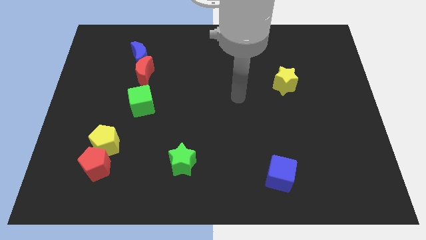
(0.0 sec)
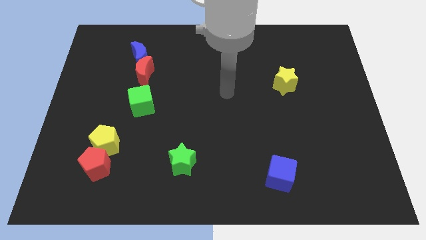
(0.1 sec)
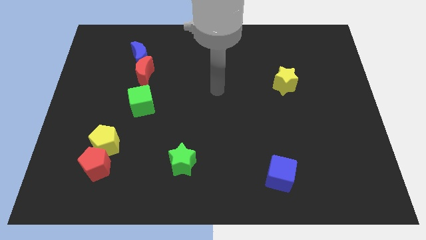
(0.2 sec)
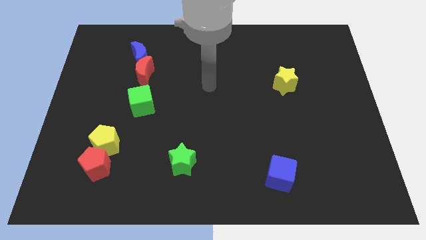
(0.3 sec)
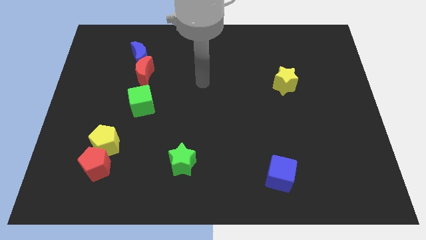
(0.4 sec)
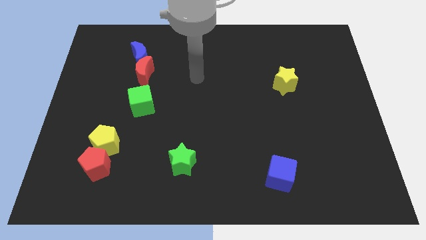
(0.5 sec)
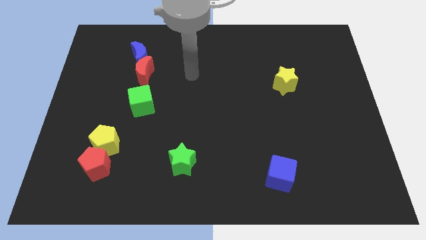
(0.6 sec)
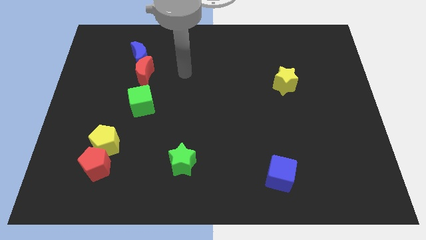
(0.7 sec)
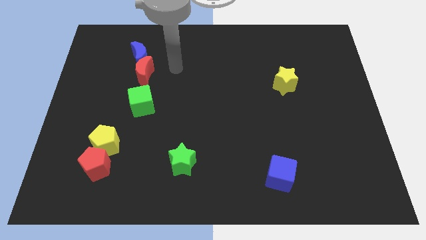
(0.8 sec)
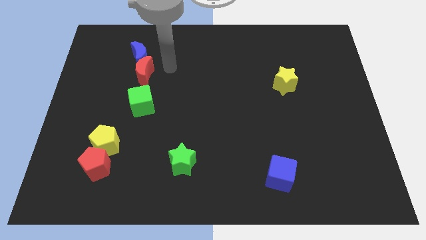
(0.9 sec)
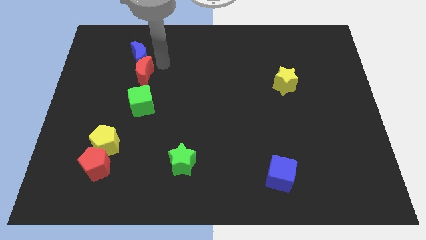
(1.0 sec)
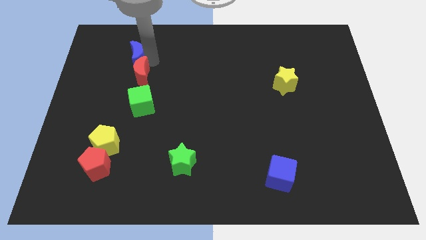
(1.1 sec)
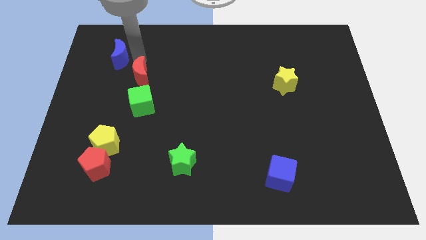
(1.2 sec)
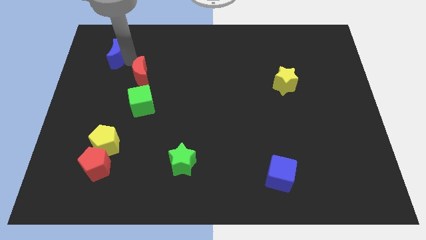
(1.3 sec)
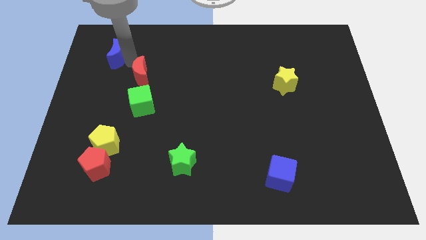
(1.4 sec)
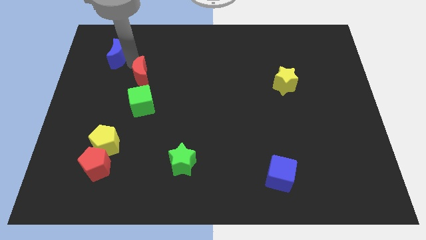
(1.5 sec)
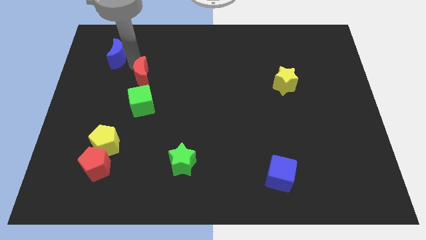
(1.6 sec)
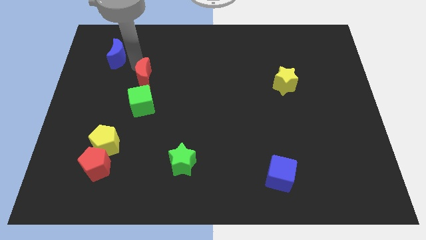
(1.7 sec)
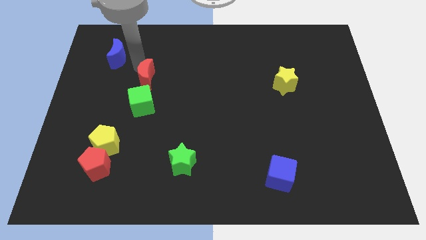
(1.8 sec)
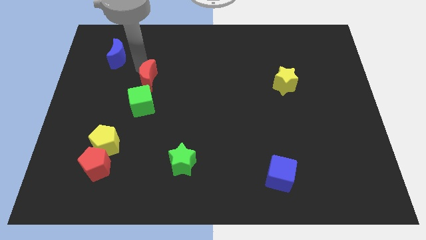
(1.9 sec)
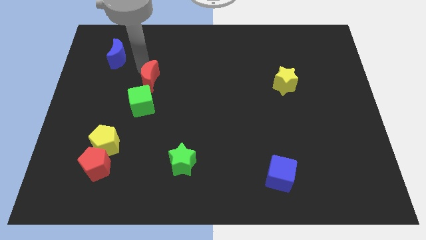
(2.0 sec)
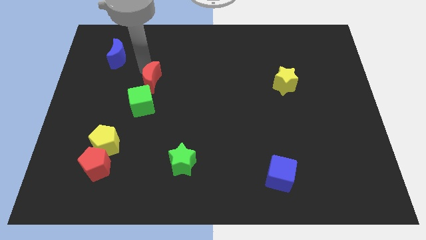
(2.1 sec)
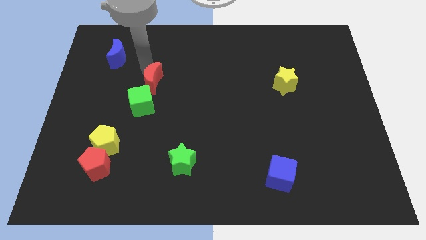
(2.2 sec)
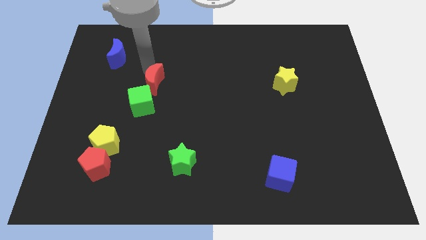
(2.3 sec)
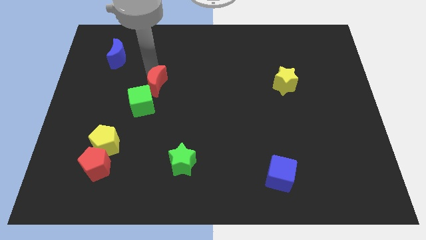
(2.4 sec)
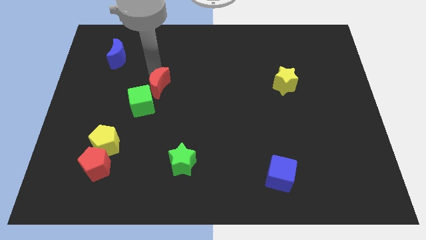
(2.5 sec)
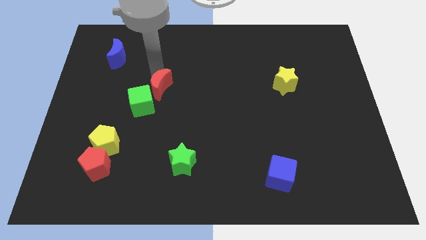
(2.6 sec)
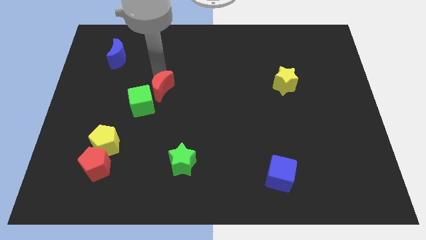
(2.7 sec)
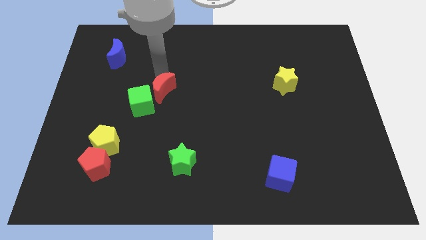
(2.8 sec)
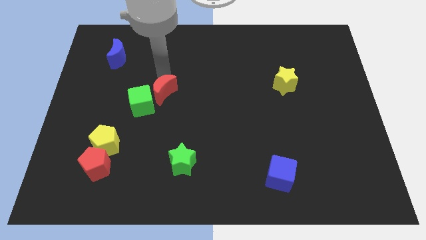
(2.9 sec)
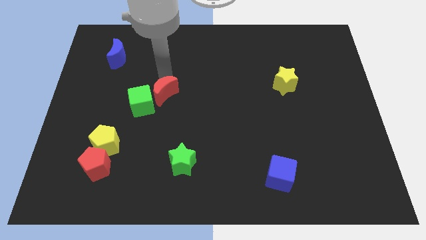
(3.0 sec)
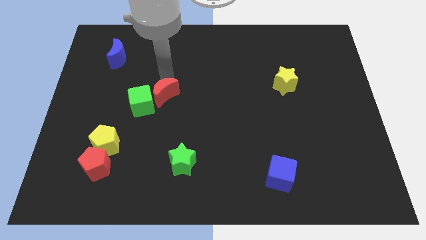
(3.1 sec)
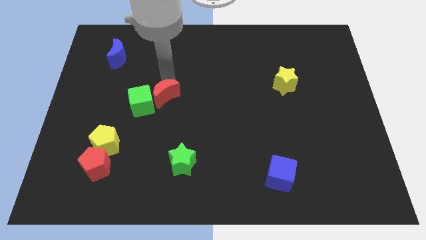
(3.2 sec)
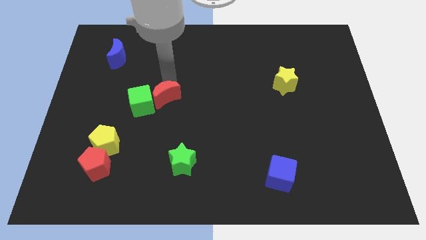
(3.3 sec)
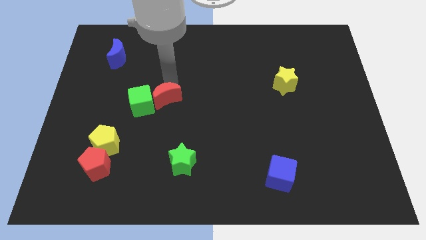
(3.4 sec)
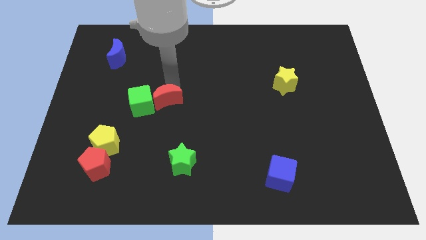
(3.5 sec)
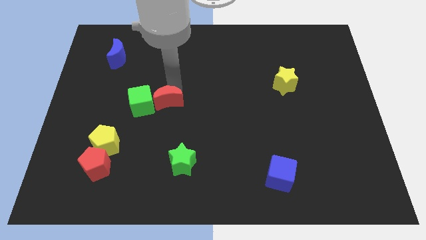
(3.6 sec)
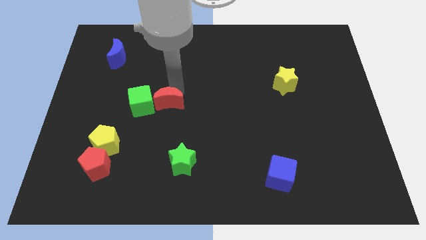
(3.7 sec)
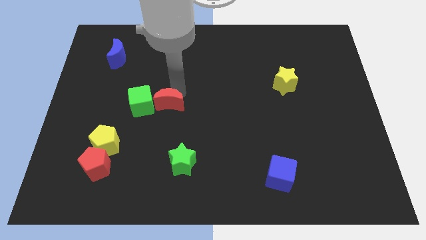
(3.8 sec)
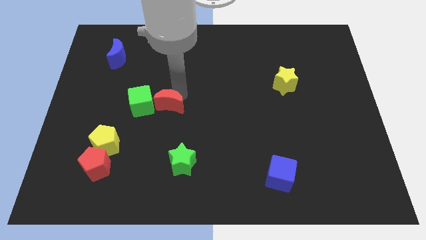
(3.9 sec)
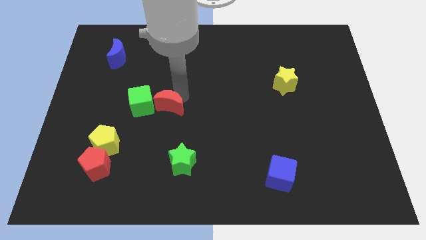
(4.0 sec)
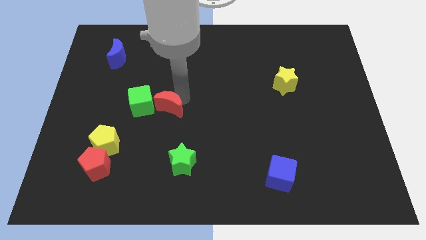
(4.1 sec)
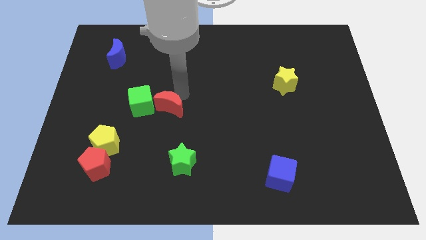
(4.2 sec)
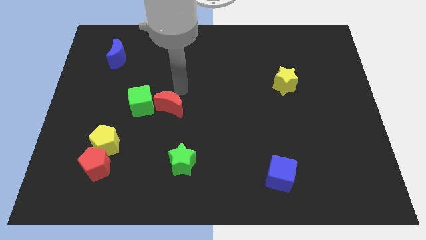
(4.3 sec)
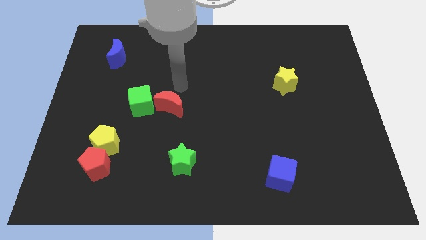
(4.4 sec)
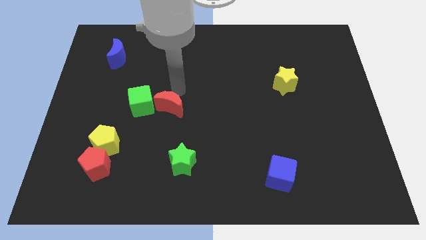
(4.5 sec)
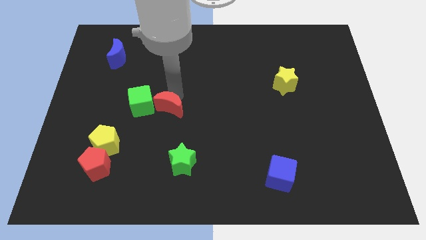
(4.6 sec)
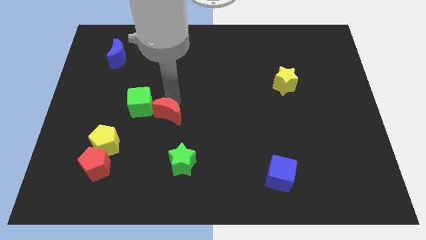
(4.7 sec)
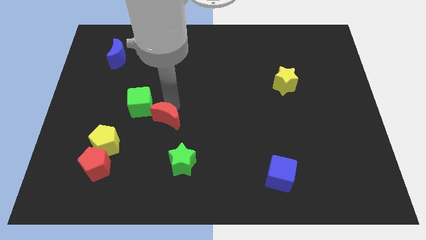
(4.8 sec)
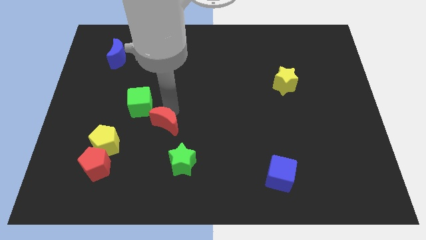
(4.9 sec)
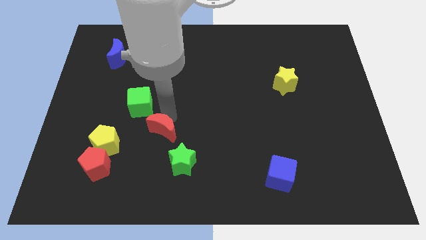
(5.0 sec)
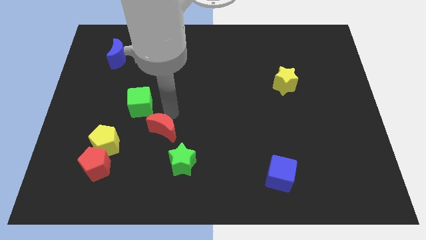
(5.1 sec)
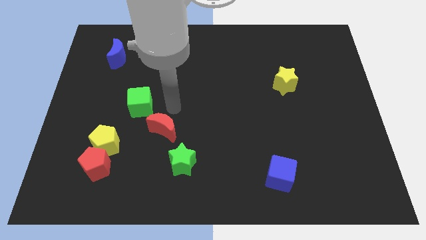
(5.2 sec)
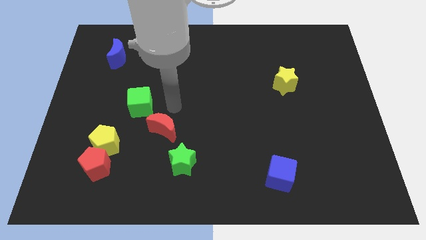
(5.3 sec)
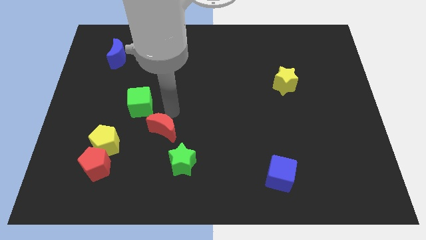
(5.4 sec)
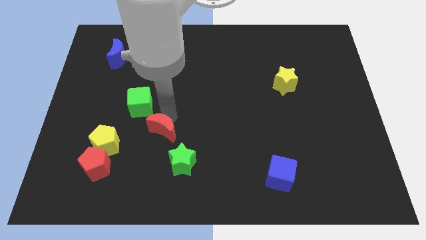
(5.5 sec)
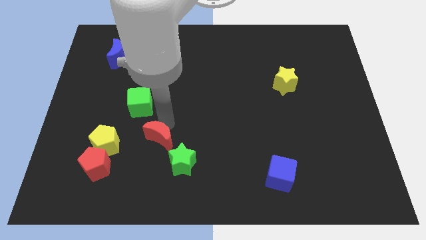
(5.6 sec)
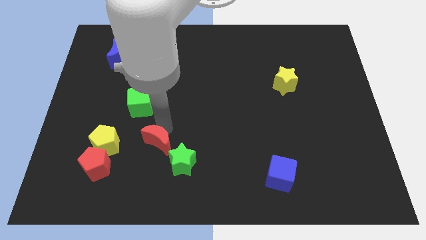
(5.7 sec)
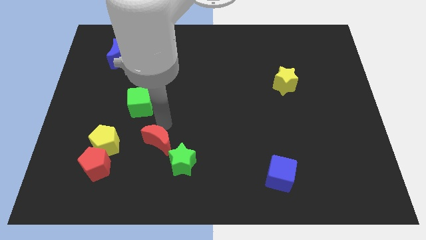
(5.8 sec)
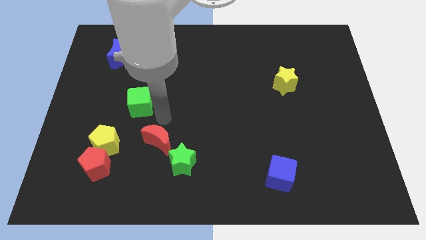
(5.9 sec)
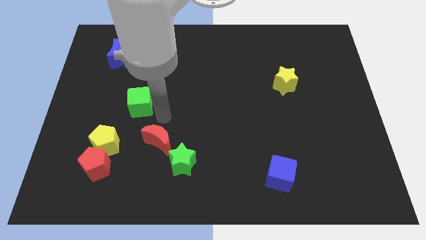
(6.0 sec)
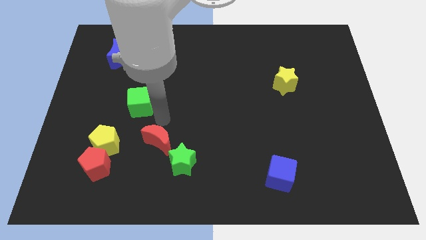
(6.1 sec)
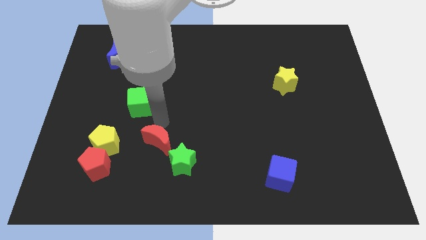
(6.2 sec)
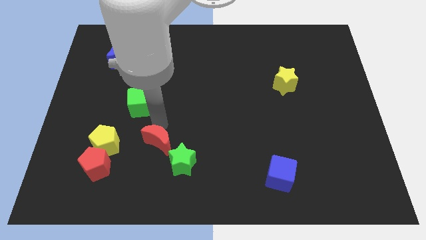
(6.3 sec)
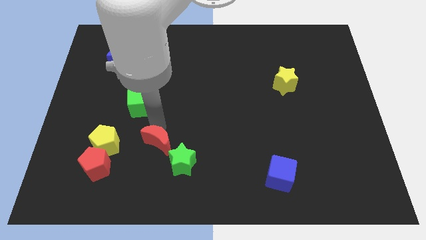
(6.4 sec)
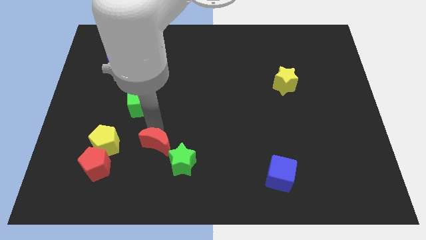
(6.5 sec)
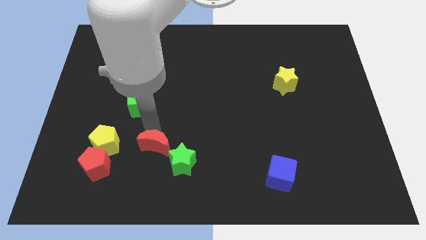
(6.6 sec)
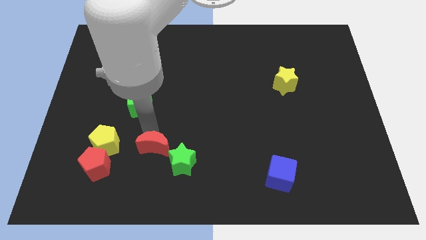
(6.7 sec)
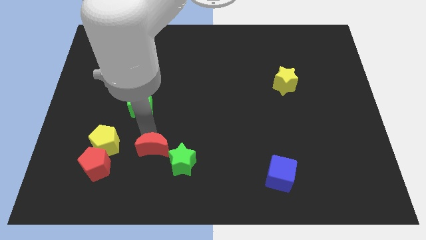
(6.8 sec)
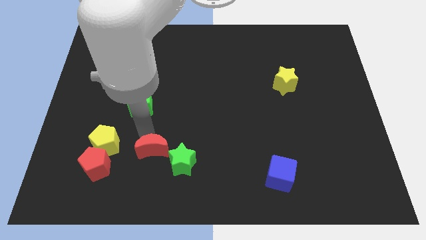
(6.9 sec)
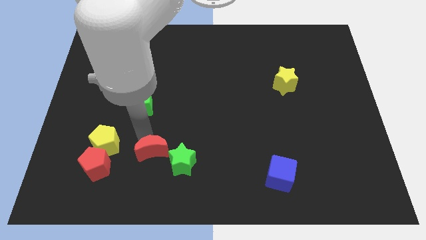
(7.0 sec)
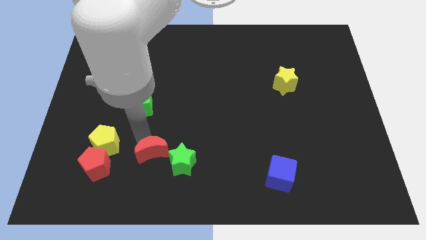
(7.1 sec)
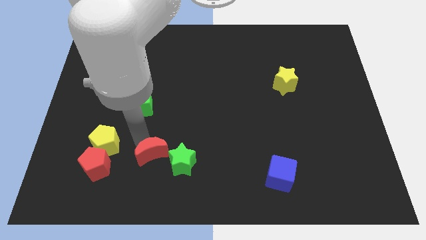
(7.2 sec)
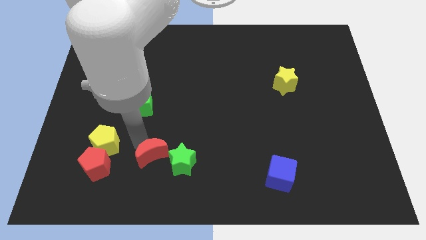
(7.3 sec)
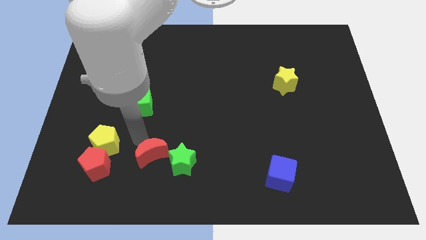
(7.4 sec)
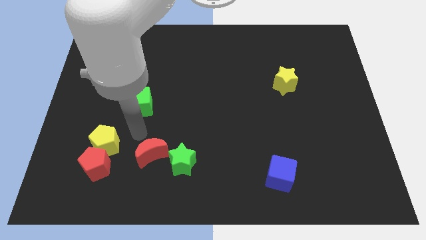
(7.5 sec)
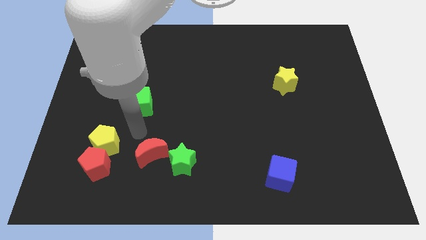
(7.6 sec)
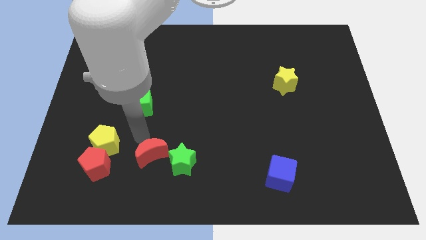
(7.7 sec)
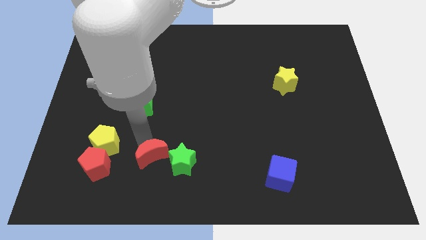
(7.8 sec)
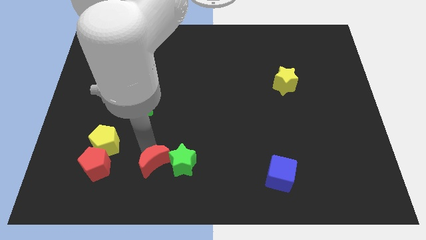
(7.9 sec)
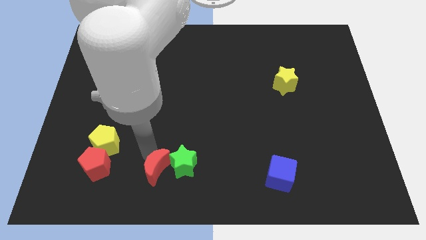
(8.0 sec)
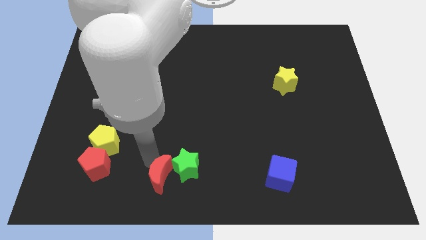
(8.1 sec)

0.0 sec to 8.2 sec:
slide the red moon to the bottom
